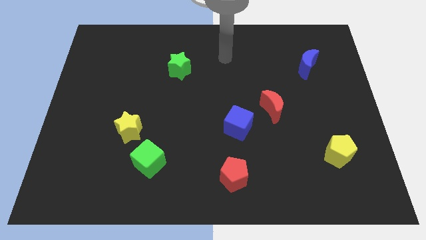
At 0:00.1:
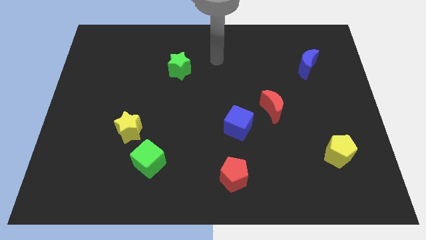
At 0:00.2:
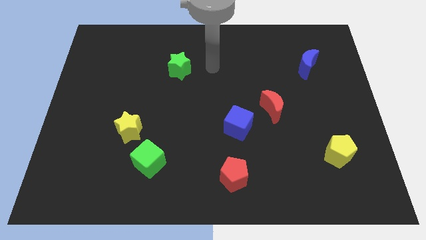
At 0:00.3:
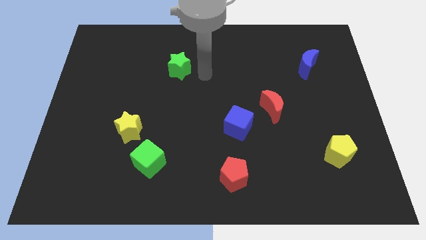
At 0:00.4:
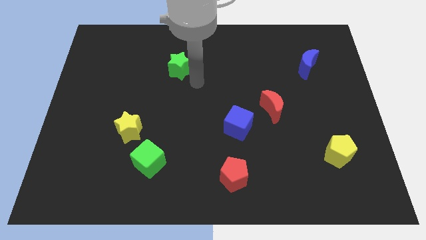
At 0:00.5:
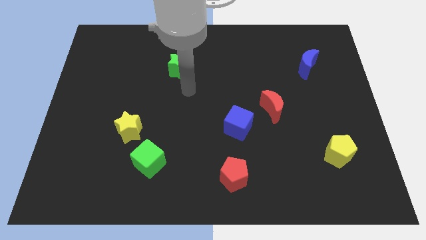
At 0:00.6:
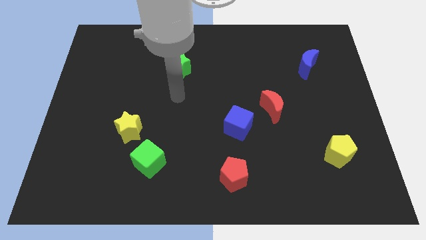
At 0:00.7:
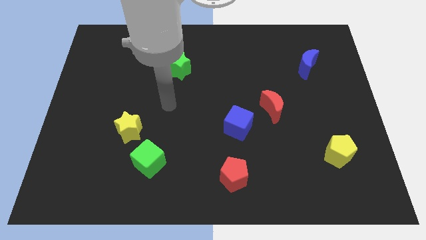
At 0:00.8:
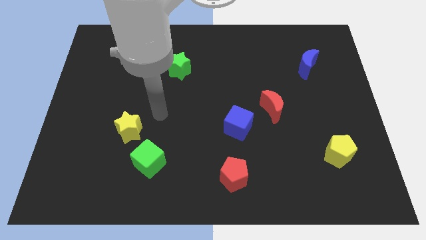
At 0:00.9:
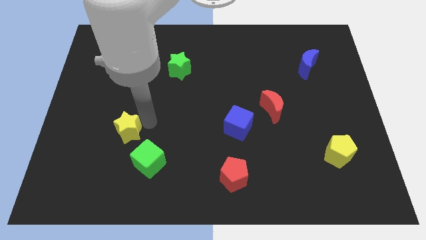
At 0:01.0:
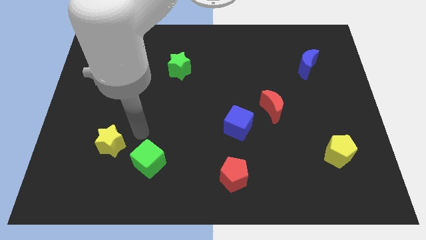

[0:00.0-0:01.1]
move the green cube away from the yellow star

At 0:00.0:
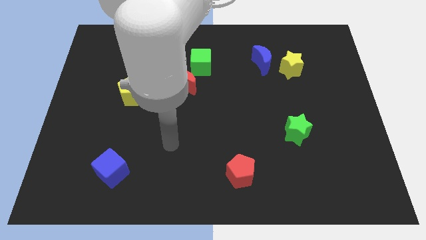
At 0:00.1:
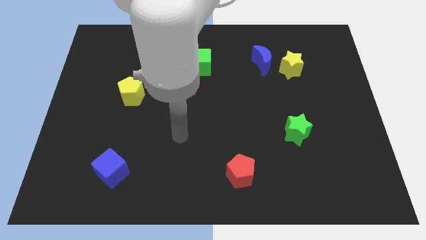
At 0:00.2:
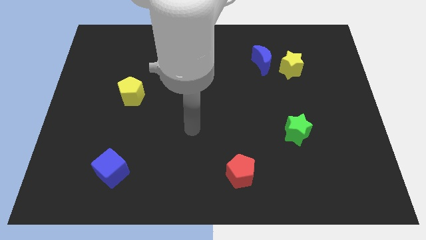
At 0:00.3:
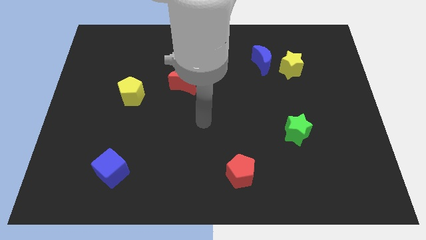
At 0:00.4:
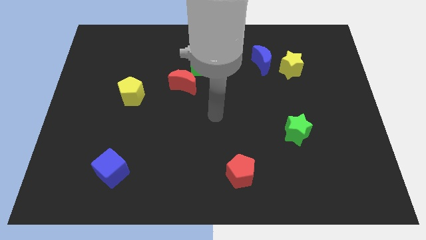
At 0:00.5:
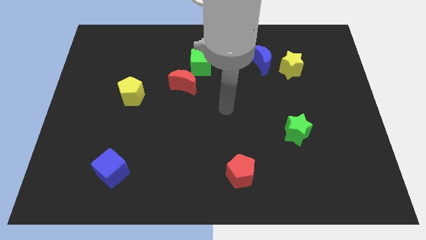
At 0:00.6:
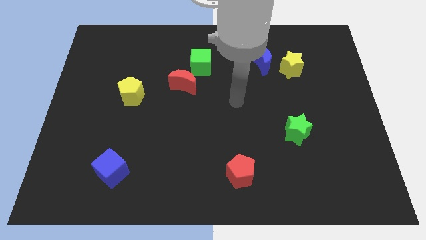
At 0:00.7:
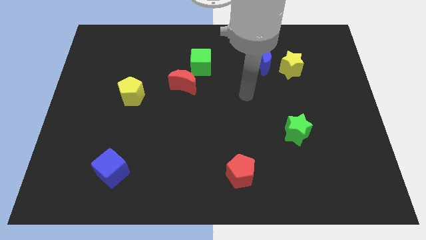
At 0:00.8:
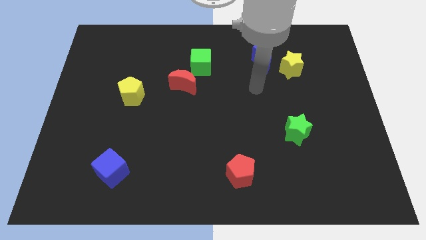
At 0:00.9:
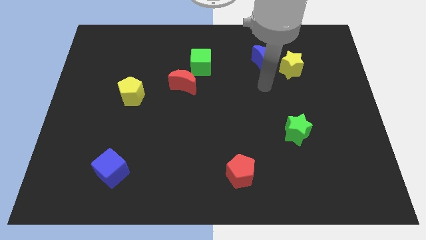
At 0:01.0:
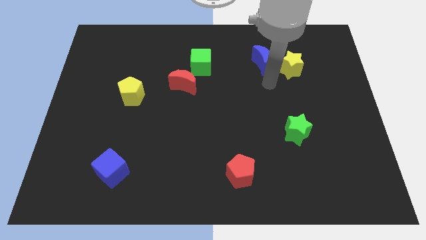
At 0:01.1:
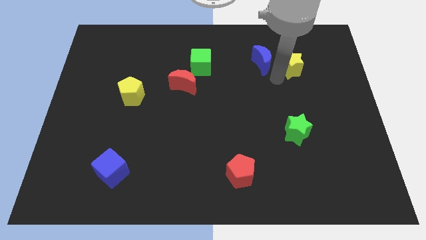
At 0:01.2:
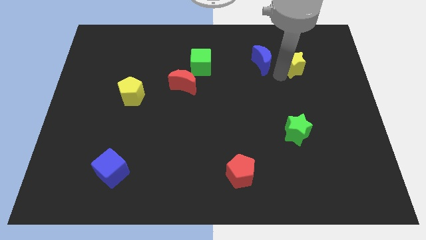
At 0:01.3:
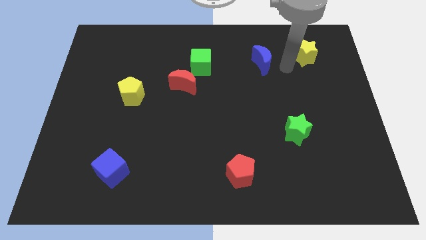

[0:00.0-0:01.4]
move the blue moon away from the yellow star

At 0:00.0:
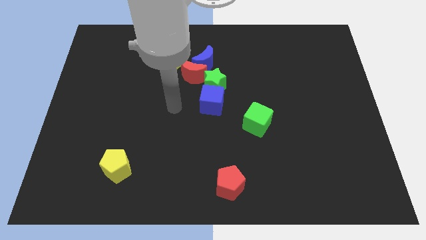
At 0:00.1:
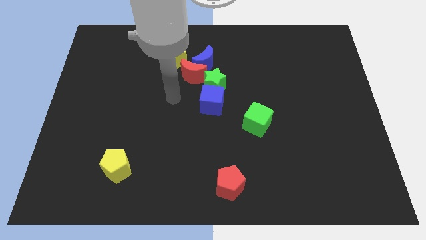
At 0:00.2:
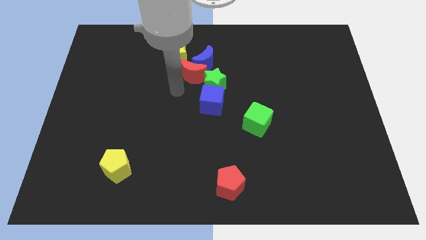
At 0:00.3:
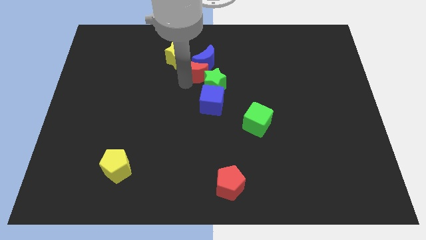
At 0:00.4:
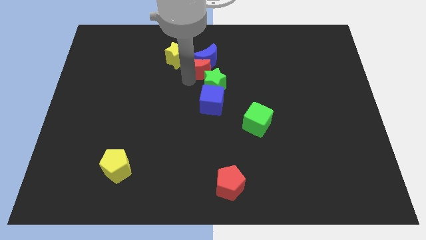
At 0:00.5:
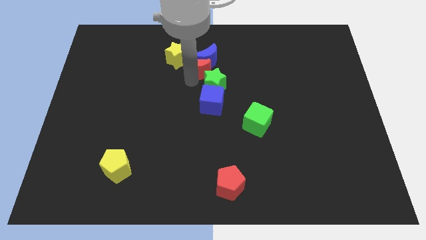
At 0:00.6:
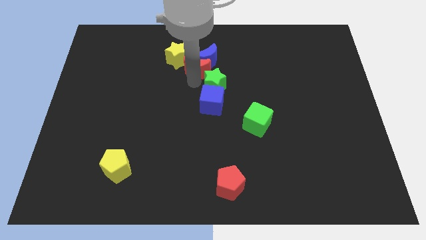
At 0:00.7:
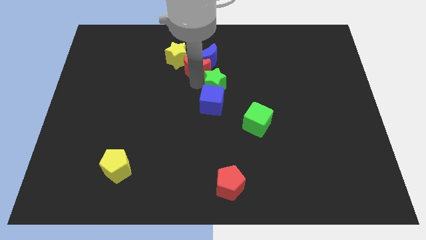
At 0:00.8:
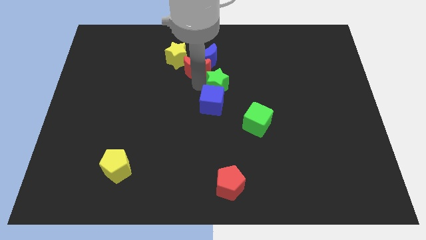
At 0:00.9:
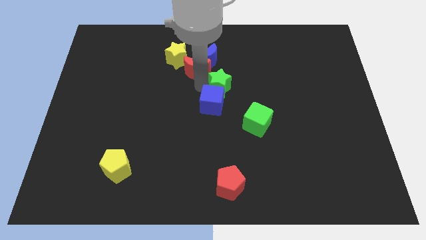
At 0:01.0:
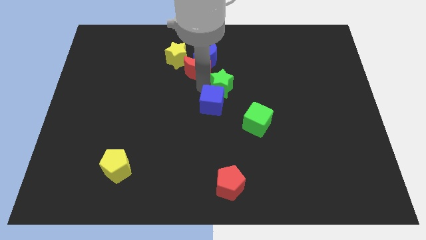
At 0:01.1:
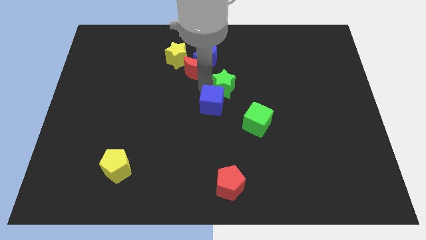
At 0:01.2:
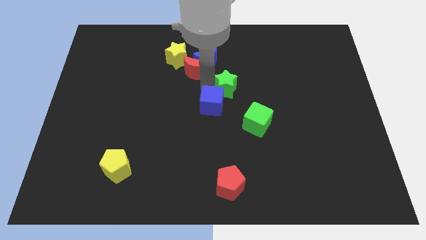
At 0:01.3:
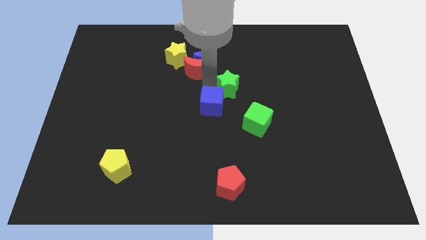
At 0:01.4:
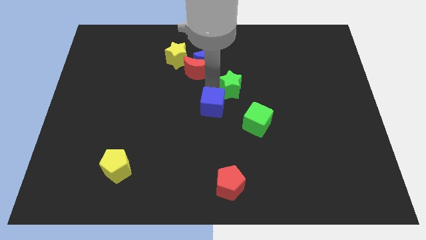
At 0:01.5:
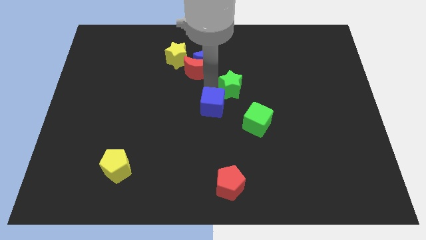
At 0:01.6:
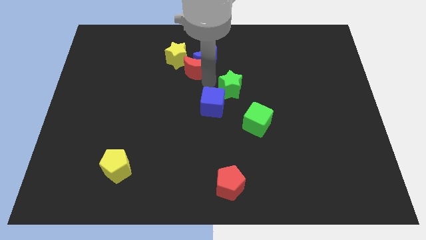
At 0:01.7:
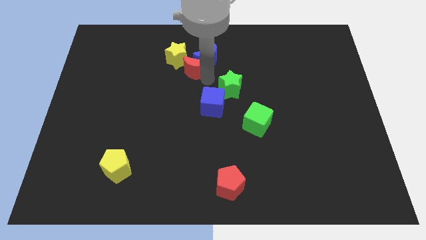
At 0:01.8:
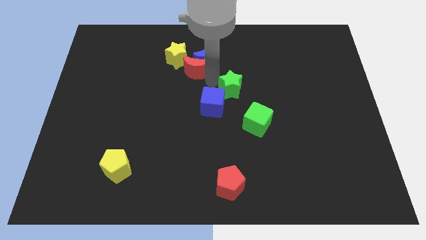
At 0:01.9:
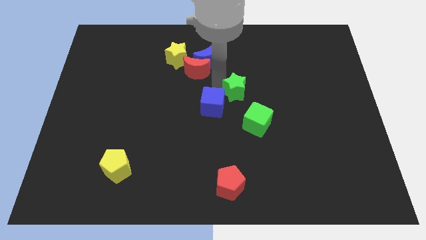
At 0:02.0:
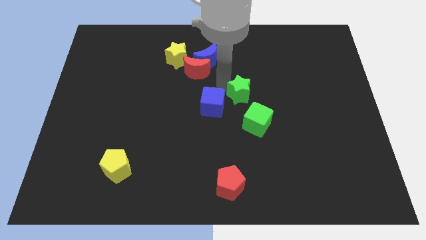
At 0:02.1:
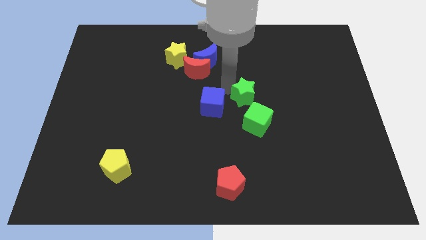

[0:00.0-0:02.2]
pull the green star apart from the blue cube, red moon, and blue moon

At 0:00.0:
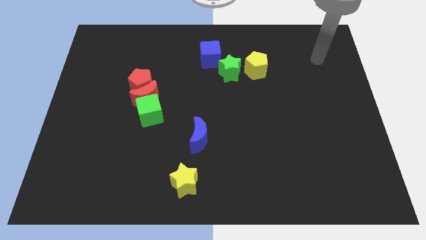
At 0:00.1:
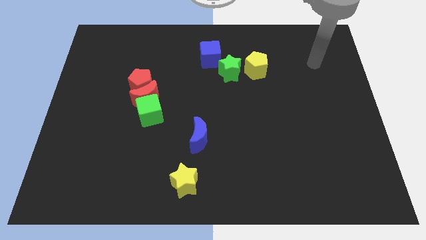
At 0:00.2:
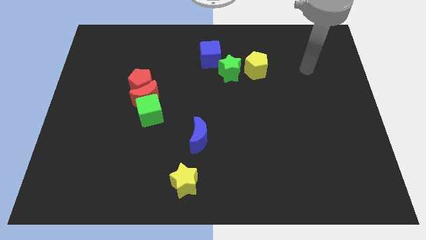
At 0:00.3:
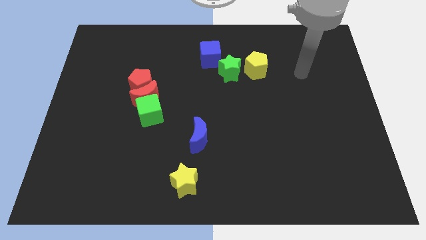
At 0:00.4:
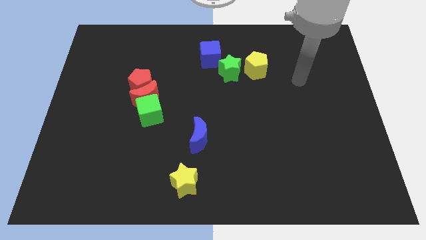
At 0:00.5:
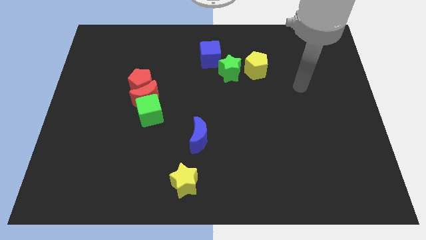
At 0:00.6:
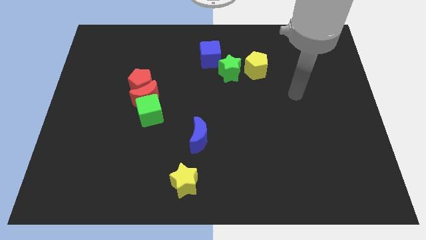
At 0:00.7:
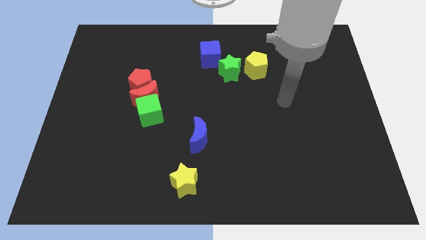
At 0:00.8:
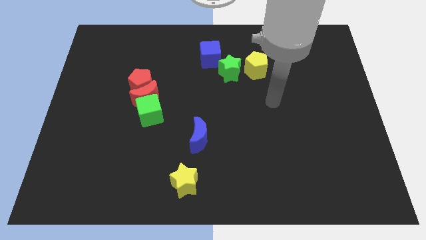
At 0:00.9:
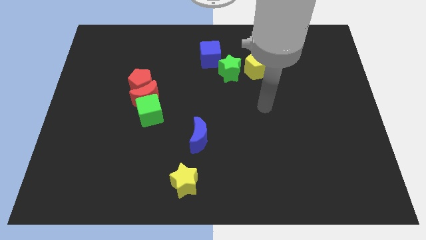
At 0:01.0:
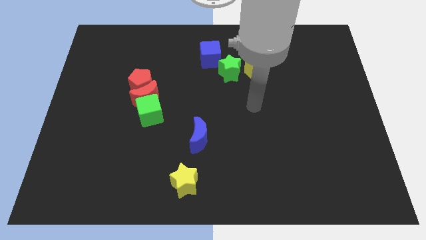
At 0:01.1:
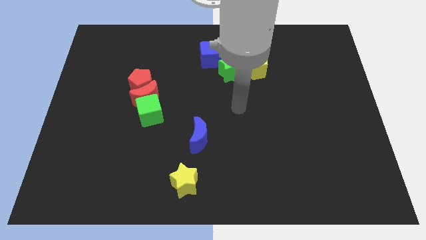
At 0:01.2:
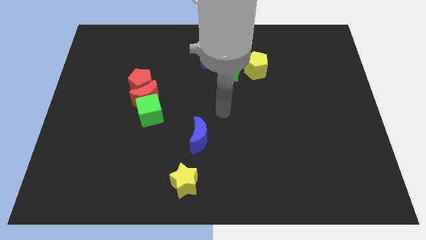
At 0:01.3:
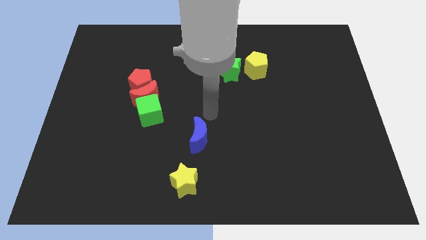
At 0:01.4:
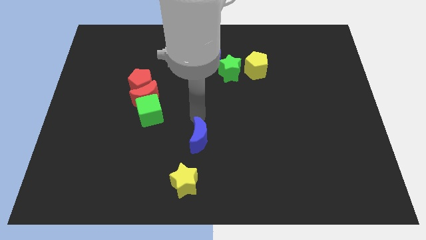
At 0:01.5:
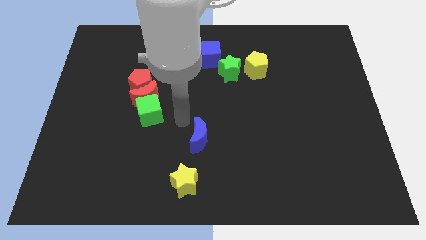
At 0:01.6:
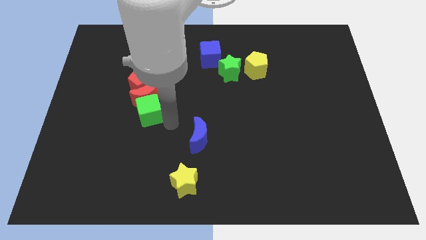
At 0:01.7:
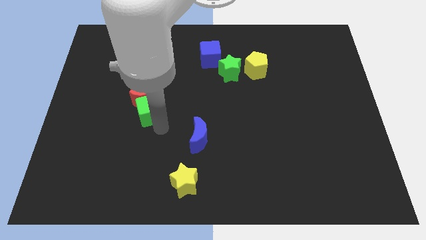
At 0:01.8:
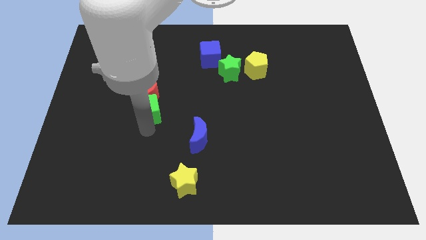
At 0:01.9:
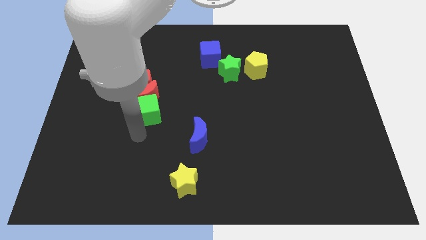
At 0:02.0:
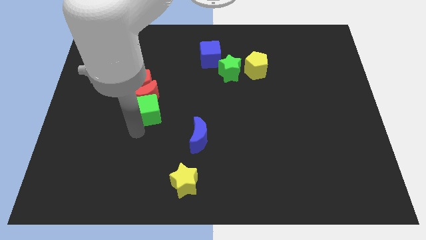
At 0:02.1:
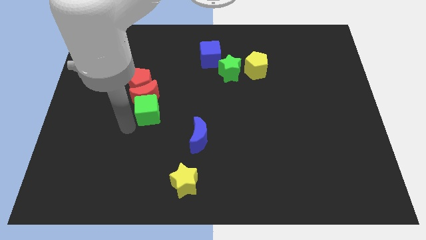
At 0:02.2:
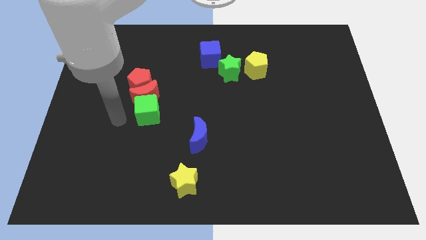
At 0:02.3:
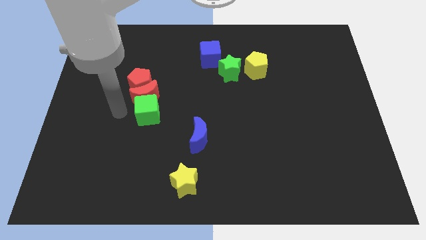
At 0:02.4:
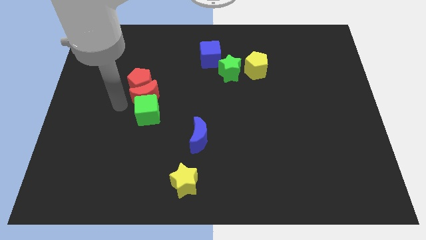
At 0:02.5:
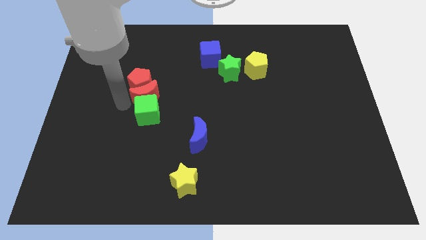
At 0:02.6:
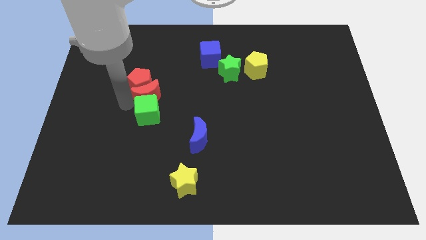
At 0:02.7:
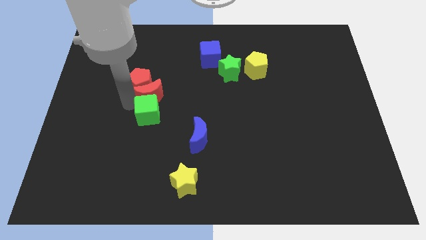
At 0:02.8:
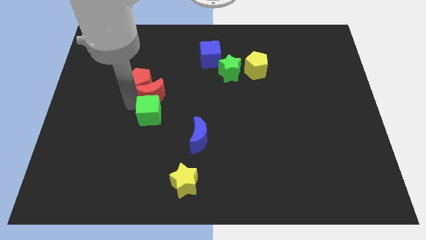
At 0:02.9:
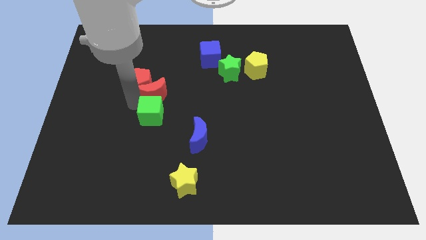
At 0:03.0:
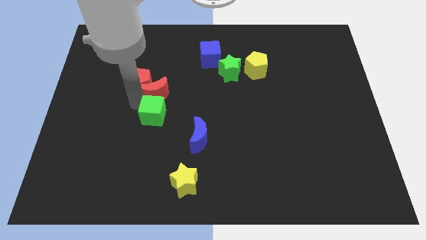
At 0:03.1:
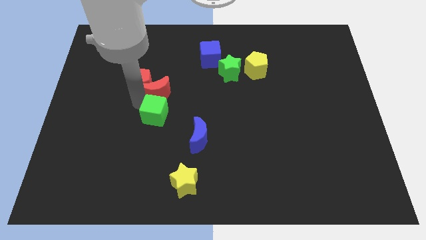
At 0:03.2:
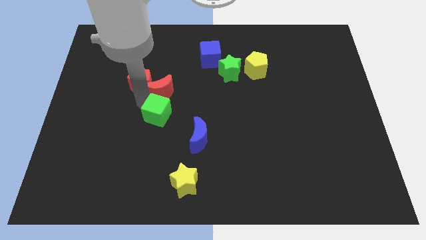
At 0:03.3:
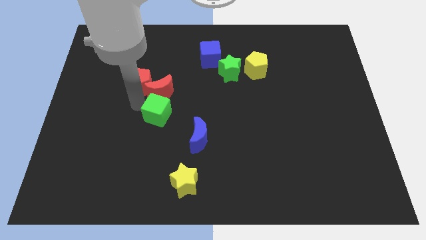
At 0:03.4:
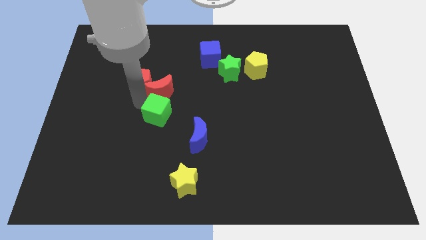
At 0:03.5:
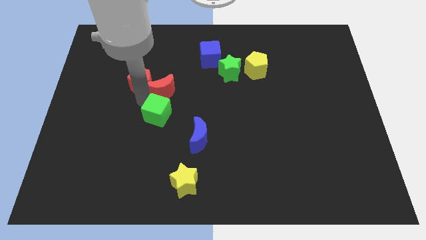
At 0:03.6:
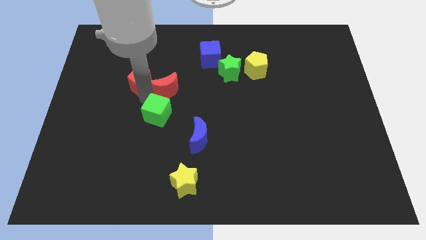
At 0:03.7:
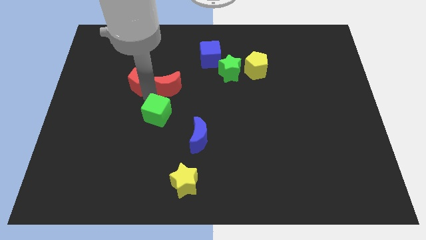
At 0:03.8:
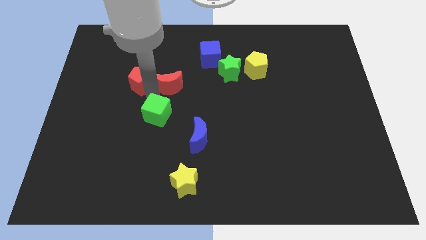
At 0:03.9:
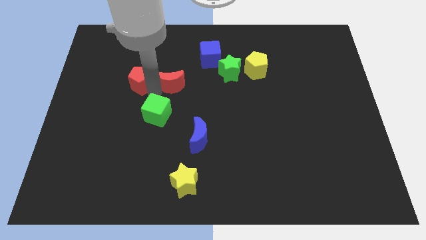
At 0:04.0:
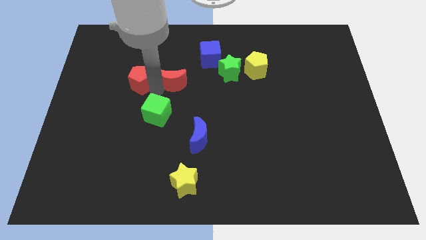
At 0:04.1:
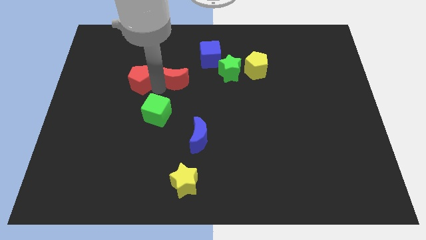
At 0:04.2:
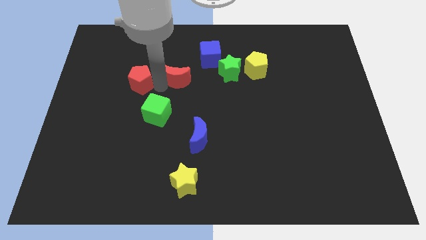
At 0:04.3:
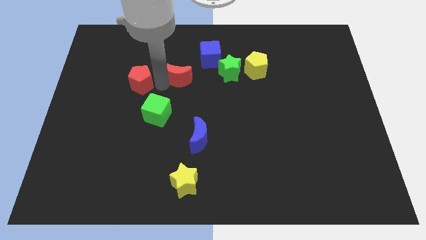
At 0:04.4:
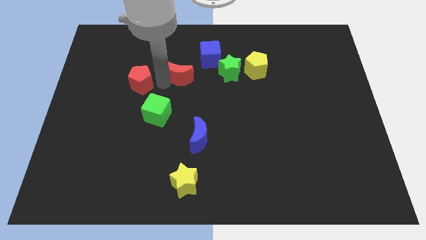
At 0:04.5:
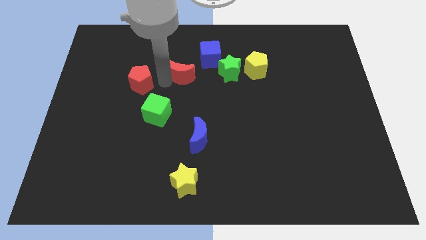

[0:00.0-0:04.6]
move the red moon away from the green cube and red pentagon

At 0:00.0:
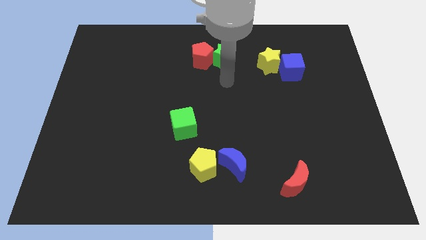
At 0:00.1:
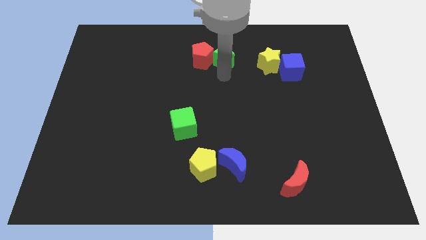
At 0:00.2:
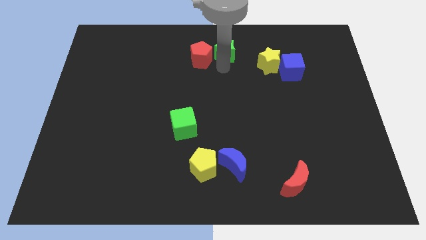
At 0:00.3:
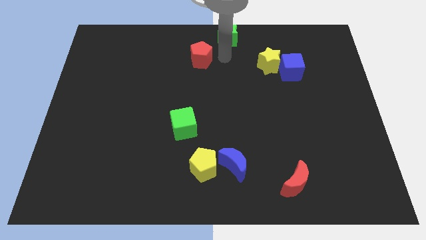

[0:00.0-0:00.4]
pull the red pentagon apart from the green star
